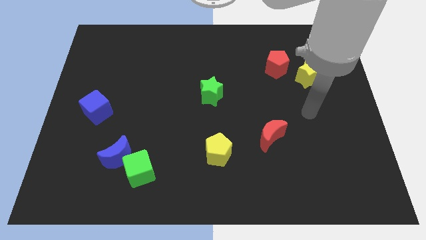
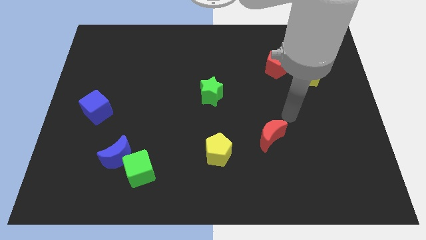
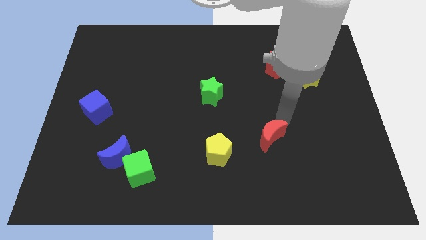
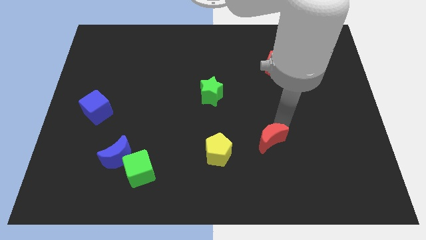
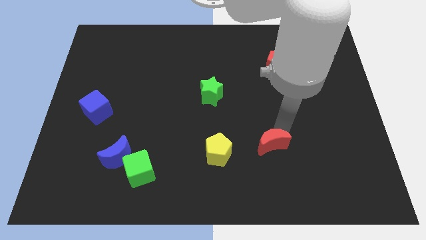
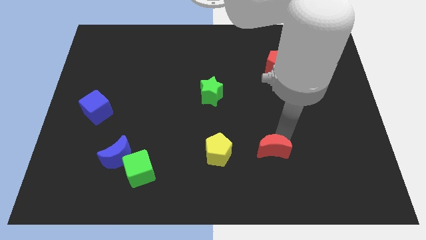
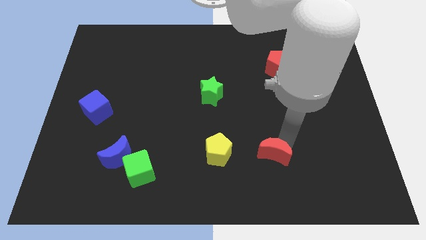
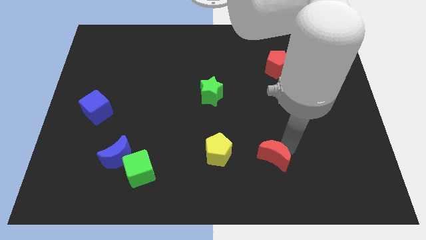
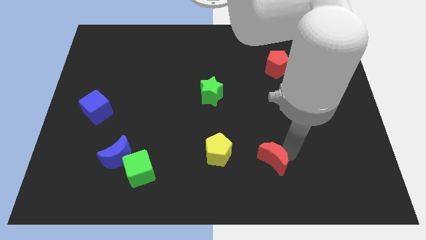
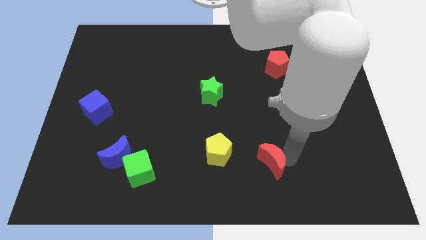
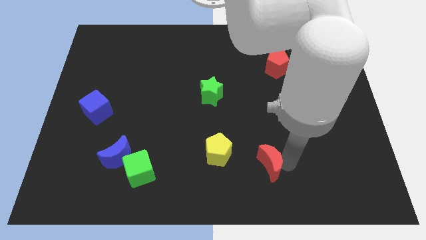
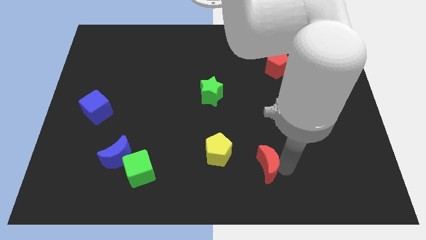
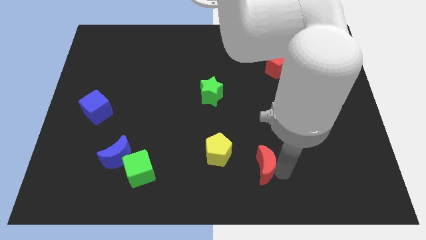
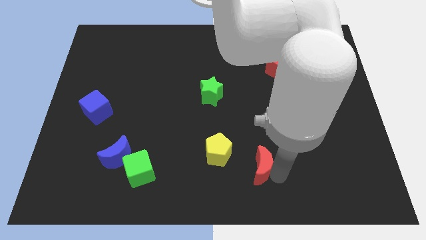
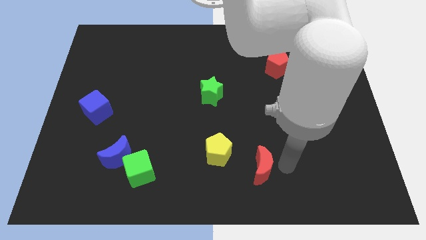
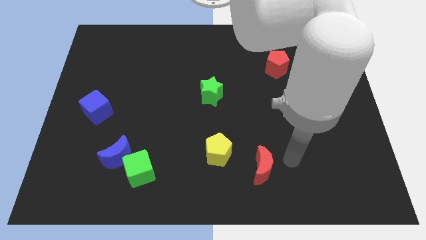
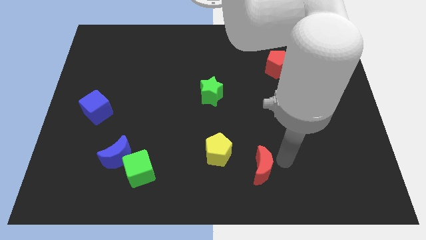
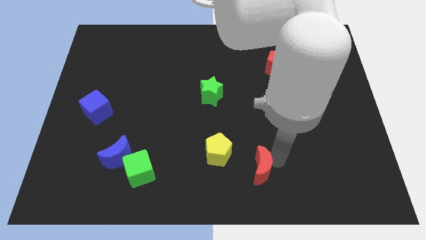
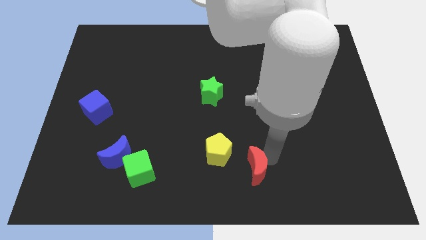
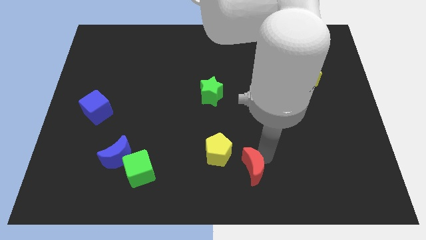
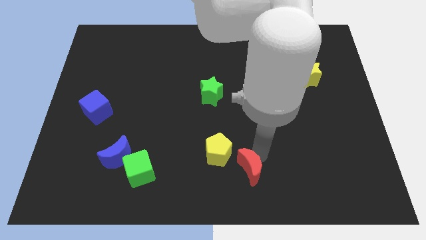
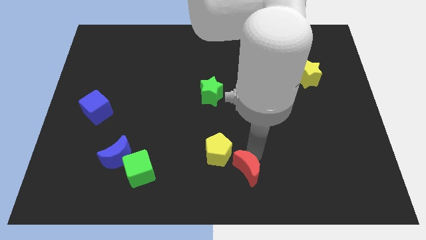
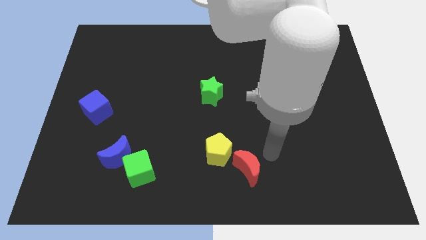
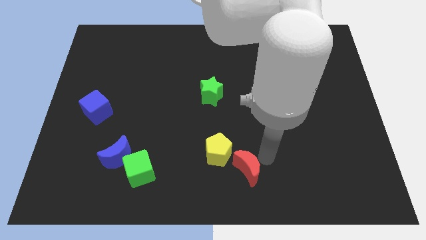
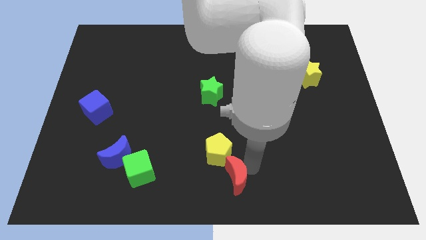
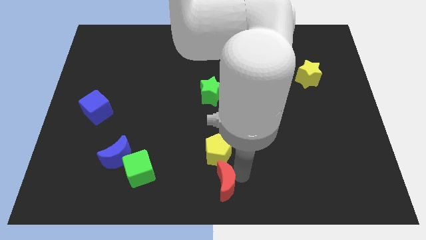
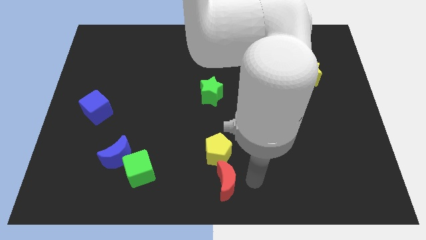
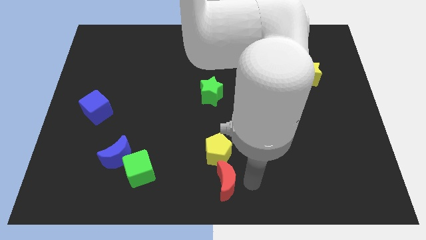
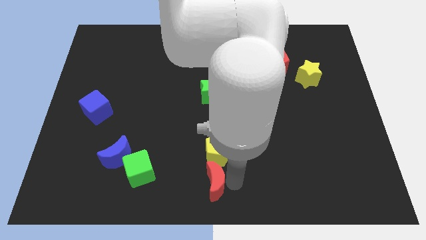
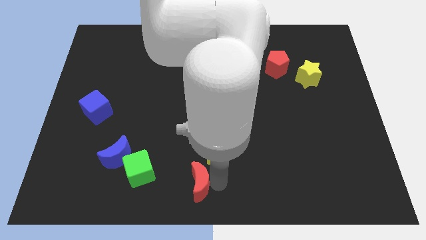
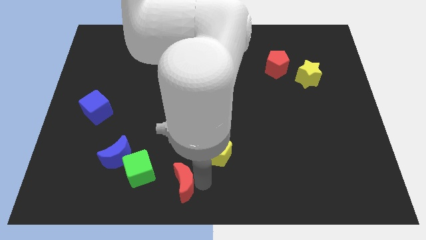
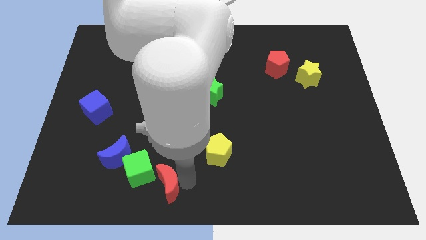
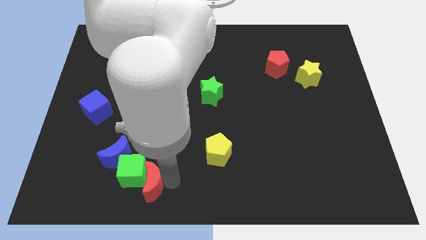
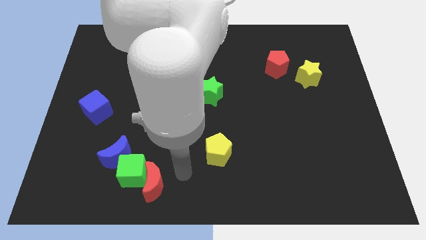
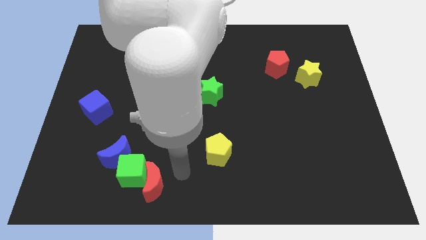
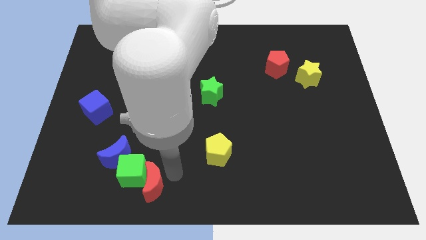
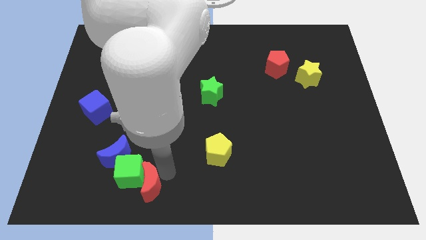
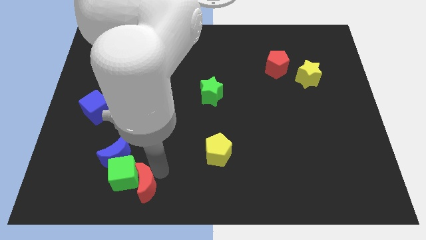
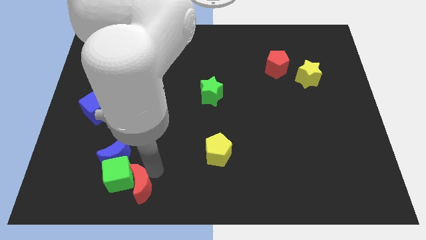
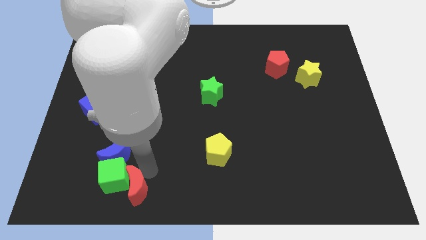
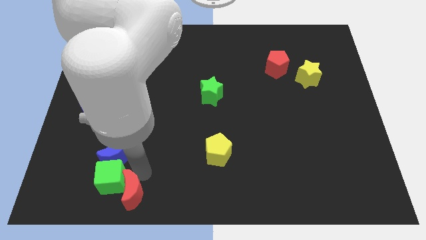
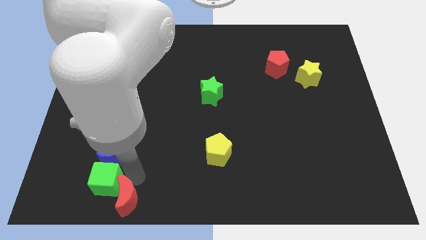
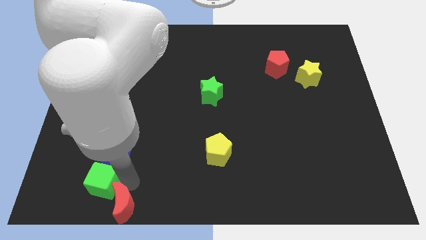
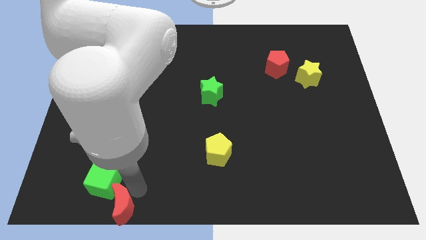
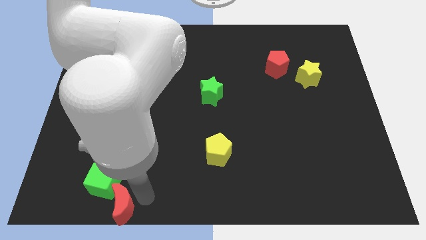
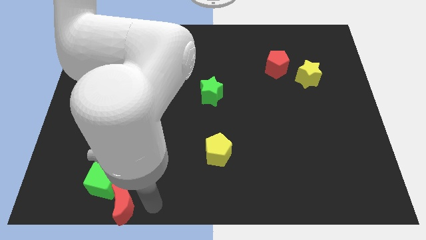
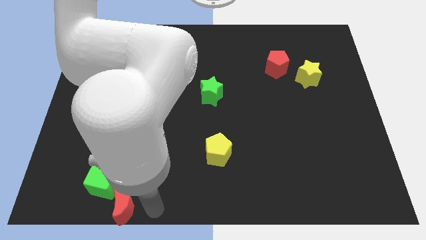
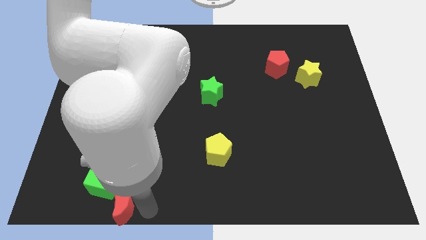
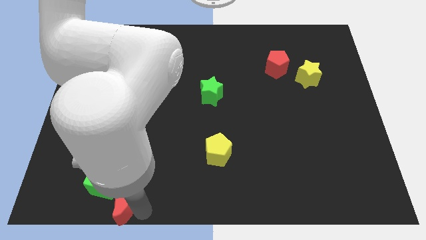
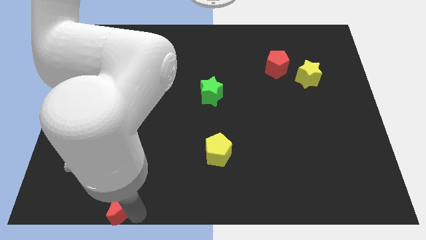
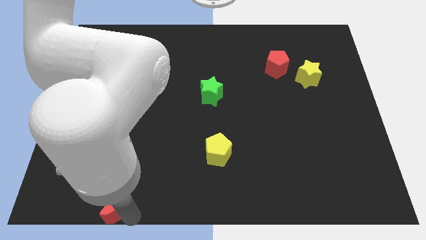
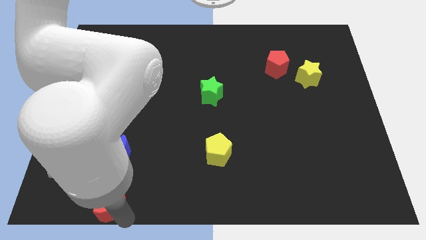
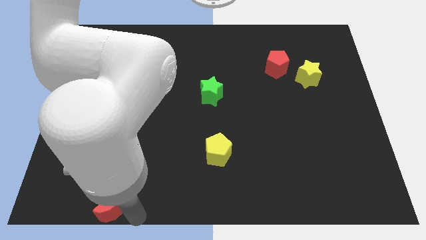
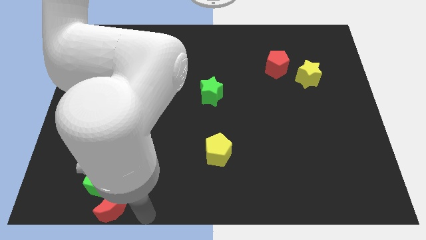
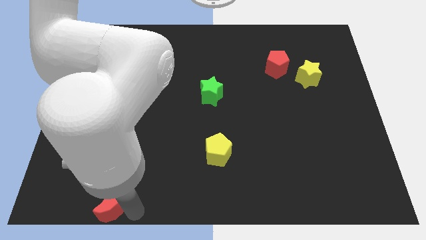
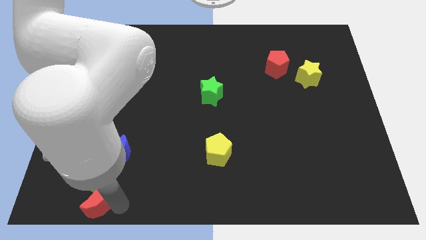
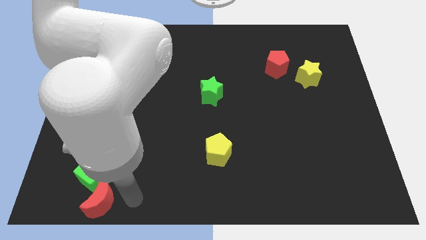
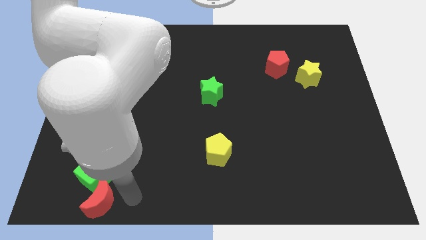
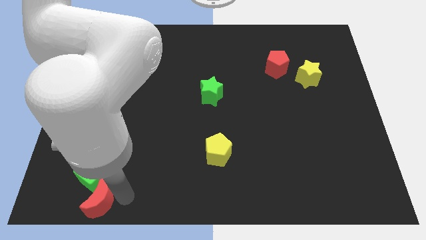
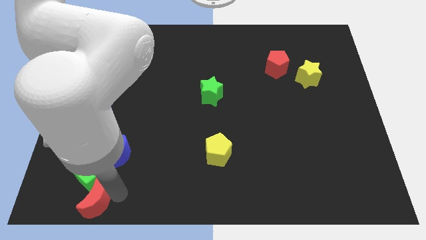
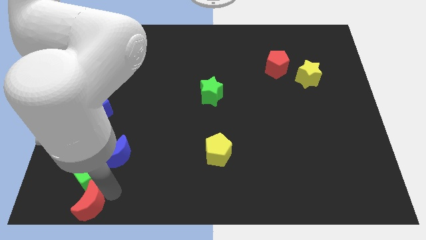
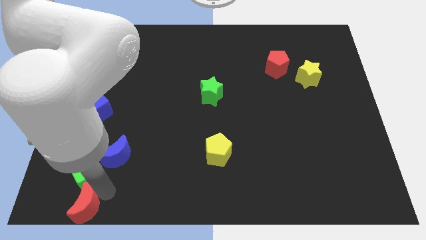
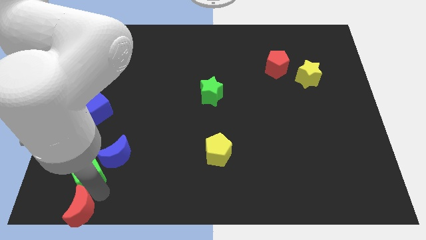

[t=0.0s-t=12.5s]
slide the red moon to the bottom left of the board
